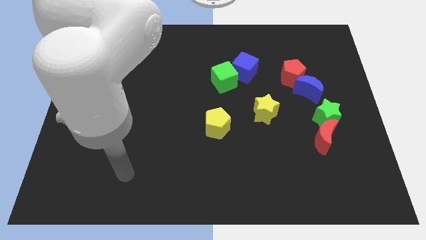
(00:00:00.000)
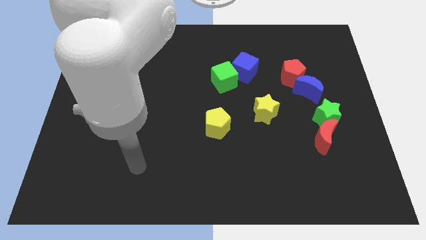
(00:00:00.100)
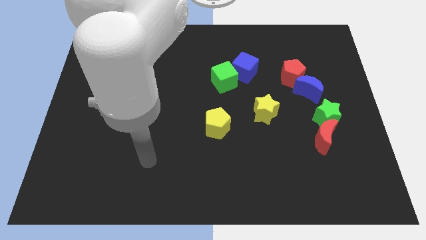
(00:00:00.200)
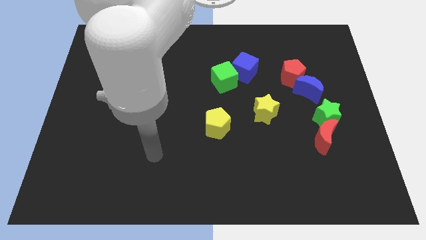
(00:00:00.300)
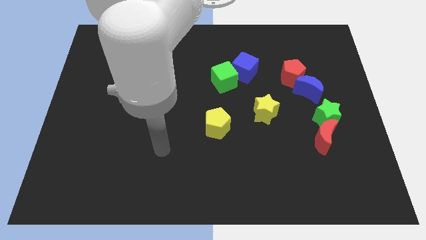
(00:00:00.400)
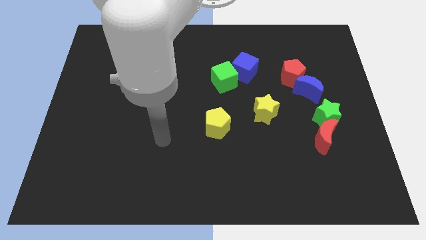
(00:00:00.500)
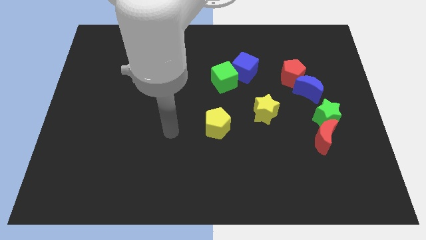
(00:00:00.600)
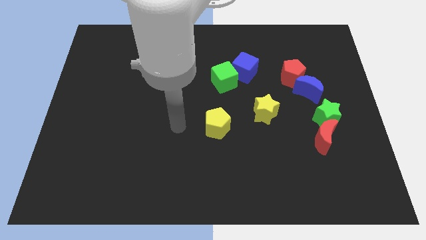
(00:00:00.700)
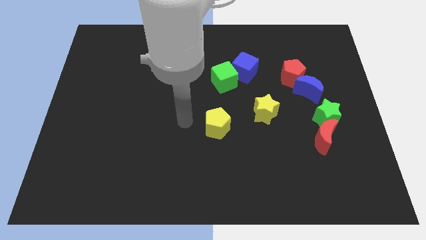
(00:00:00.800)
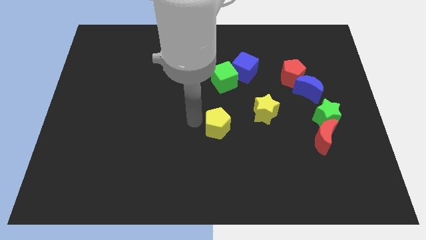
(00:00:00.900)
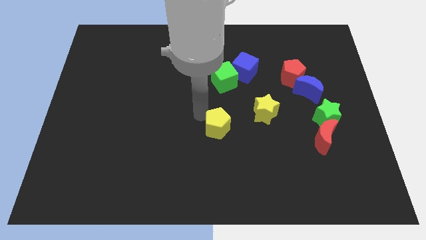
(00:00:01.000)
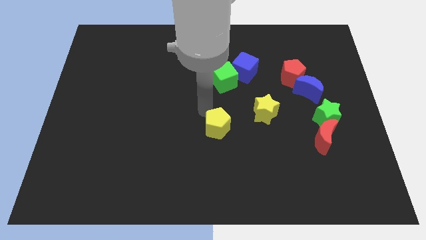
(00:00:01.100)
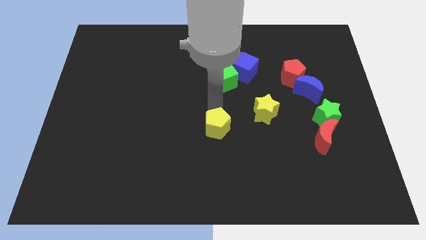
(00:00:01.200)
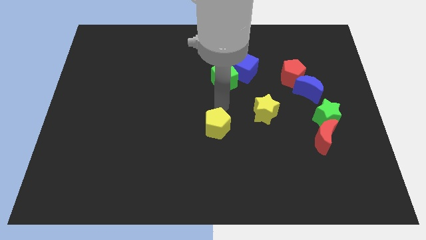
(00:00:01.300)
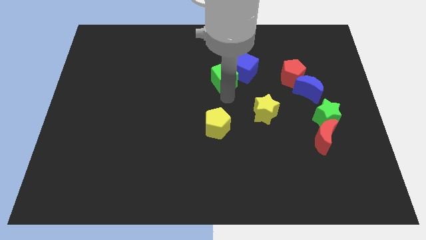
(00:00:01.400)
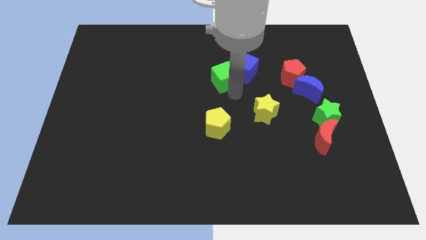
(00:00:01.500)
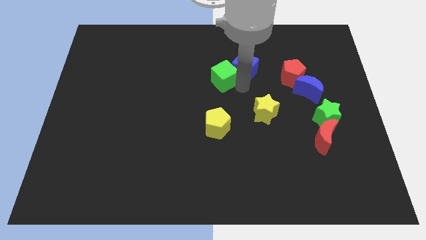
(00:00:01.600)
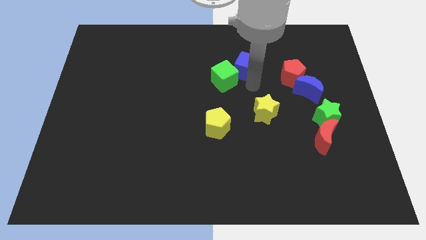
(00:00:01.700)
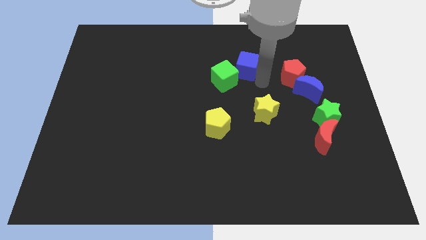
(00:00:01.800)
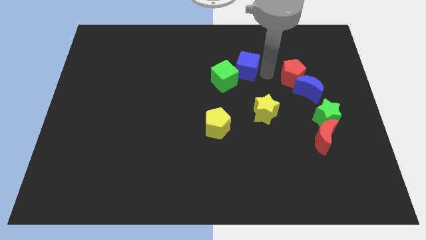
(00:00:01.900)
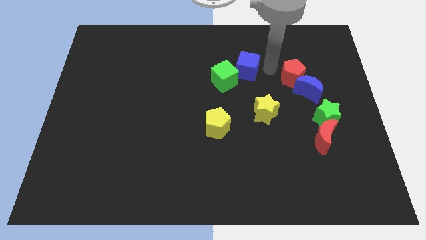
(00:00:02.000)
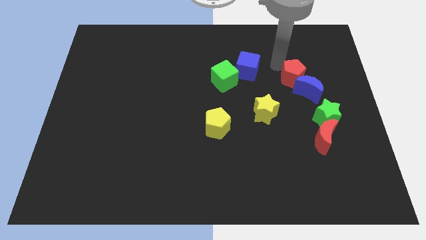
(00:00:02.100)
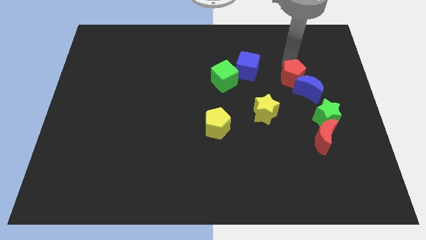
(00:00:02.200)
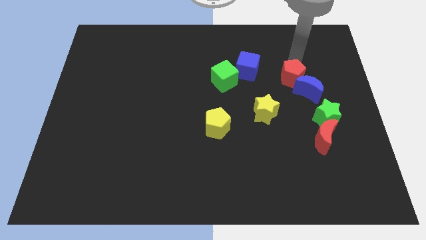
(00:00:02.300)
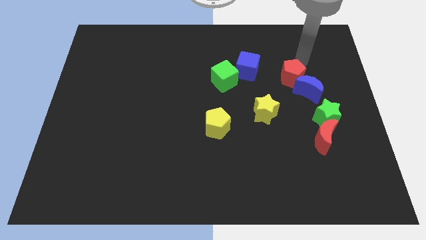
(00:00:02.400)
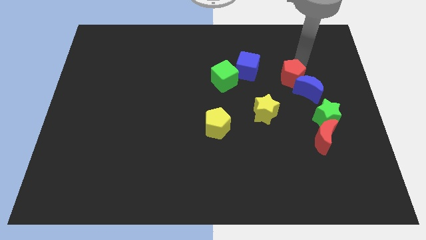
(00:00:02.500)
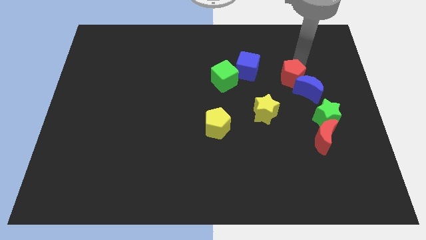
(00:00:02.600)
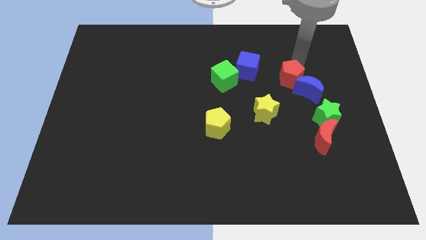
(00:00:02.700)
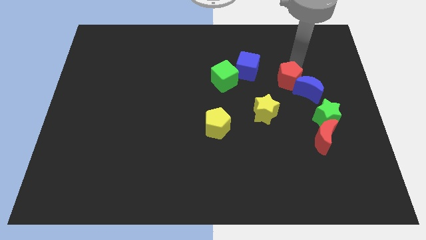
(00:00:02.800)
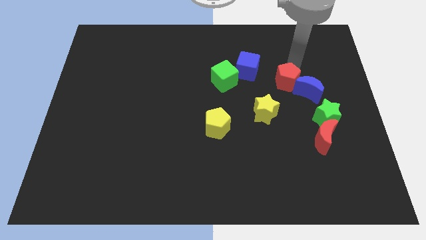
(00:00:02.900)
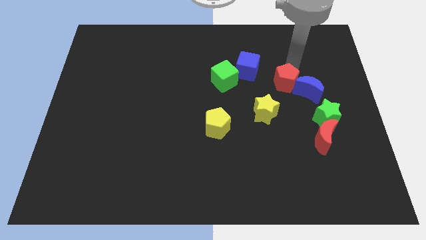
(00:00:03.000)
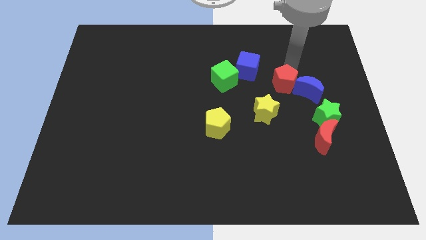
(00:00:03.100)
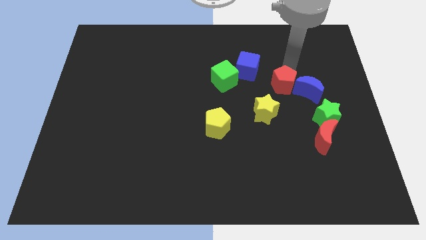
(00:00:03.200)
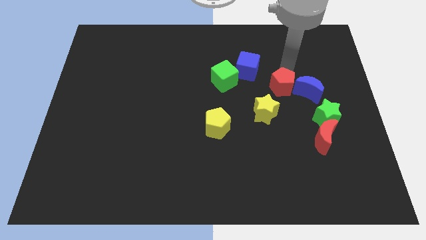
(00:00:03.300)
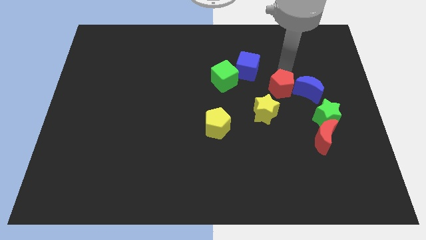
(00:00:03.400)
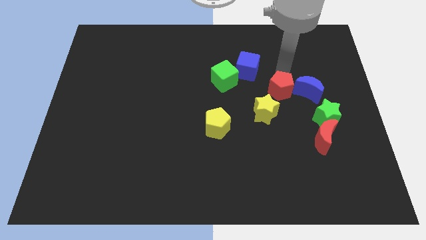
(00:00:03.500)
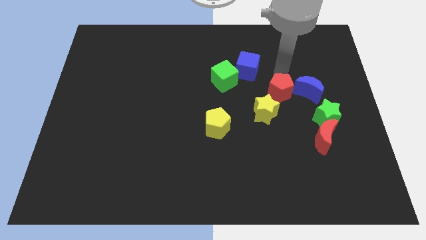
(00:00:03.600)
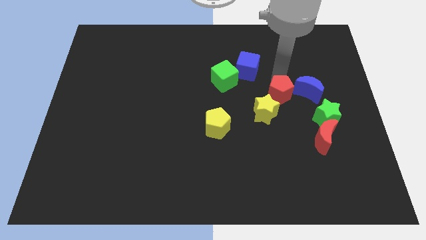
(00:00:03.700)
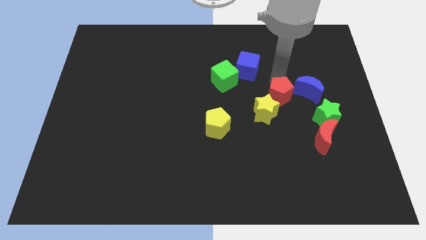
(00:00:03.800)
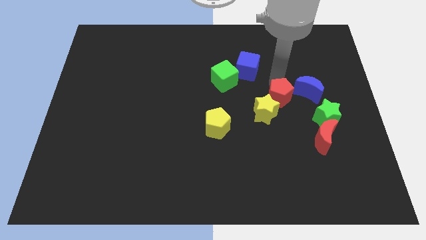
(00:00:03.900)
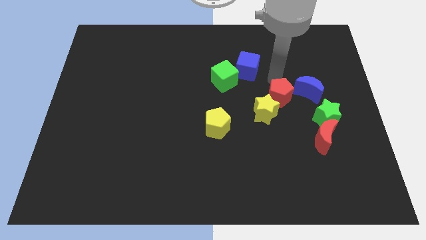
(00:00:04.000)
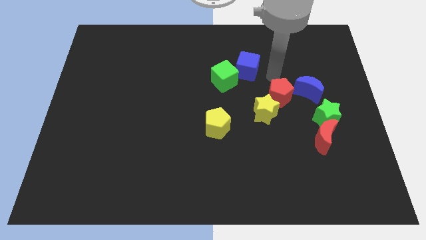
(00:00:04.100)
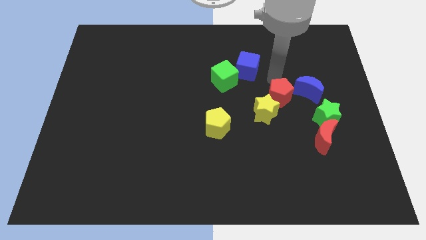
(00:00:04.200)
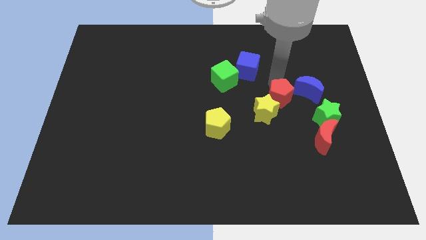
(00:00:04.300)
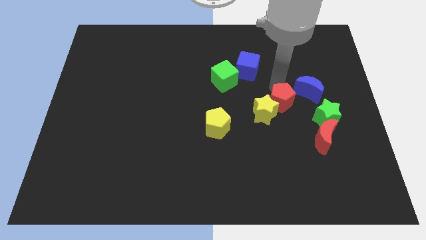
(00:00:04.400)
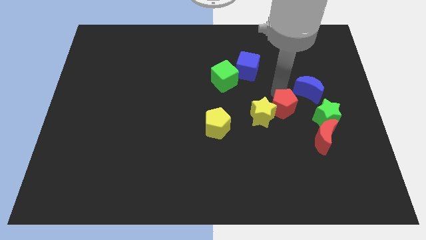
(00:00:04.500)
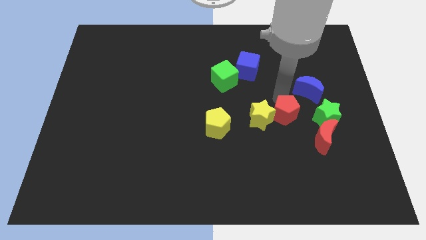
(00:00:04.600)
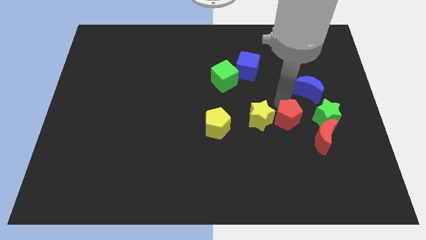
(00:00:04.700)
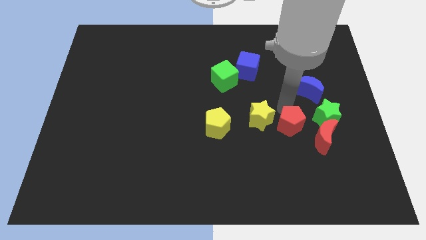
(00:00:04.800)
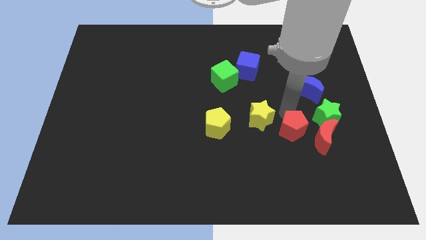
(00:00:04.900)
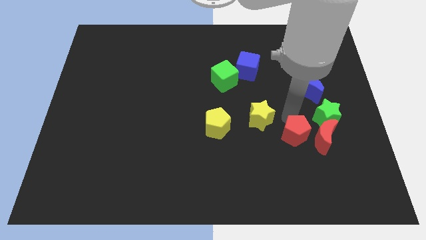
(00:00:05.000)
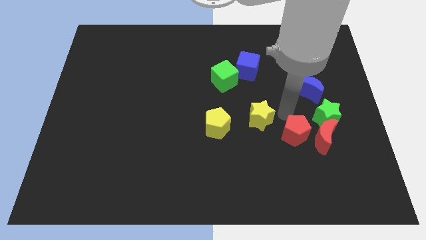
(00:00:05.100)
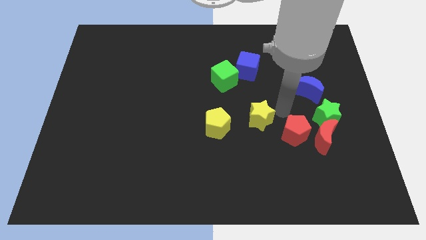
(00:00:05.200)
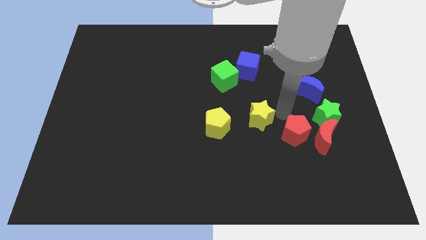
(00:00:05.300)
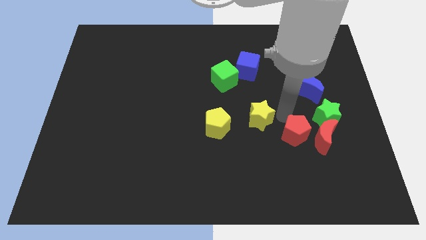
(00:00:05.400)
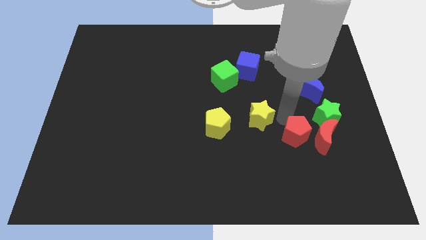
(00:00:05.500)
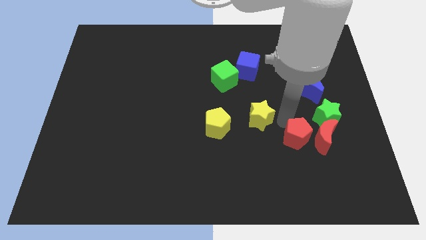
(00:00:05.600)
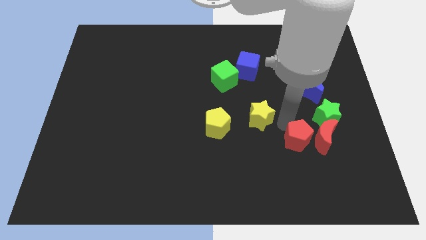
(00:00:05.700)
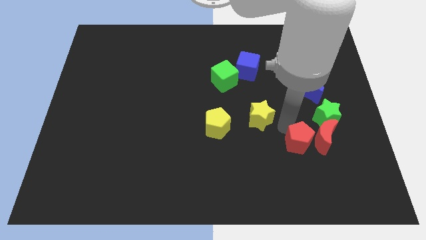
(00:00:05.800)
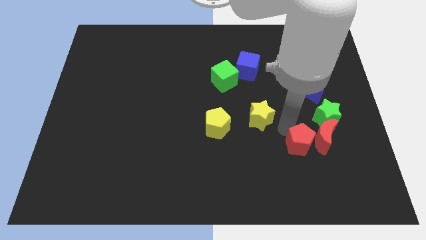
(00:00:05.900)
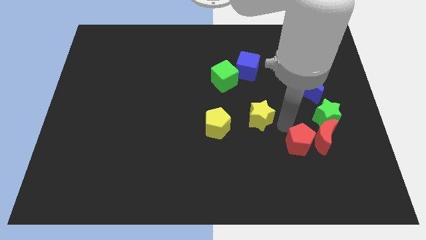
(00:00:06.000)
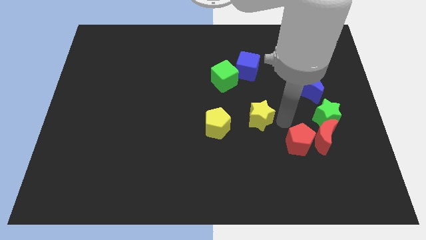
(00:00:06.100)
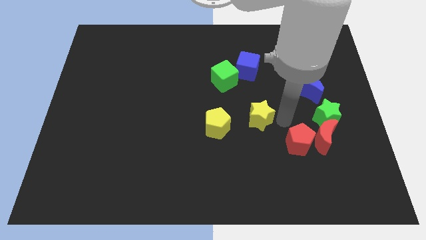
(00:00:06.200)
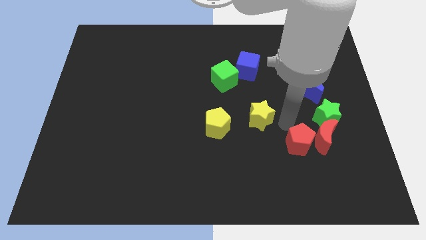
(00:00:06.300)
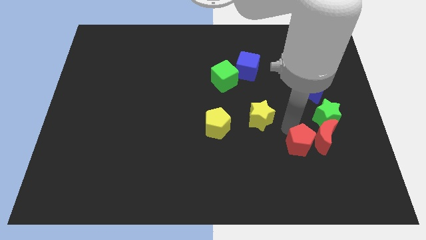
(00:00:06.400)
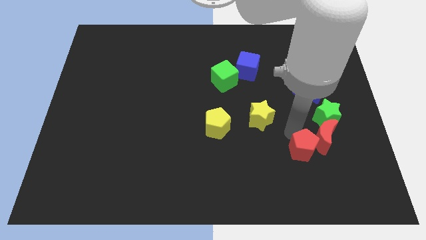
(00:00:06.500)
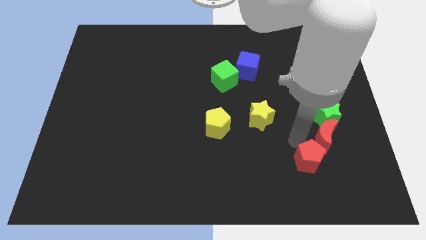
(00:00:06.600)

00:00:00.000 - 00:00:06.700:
put the red pentagon to the bottom side of the red moon
